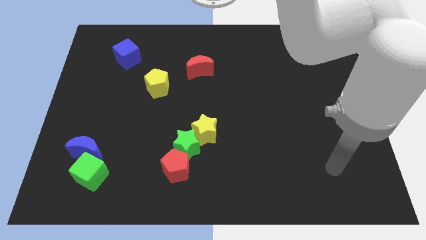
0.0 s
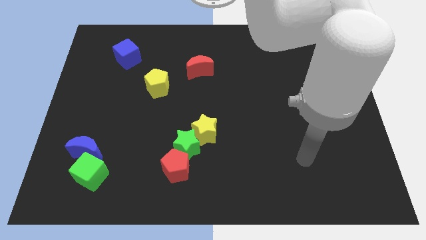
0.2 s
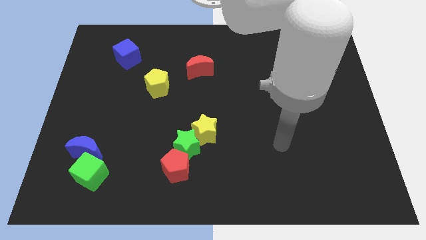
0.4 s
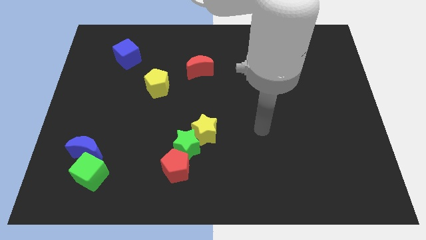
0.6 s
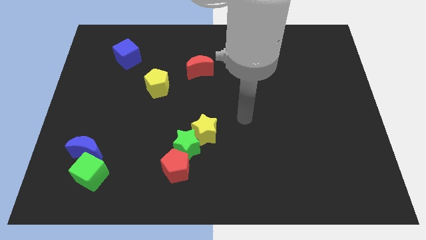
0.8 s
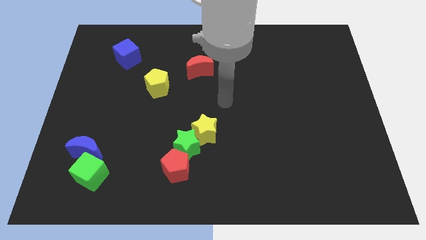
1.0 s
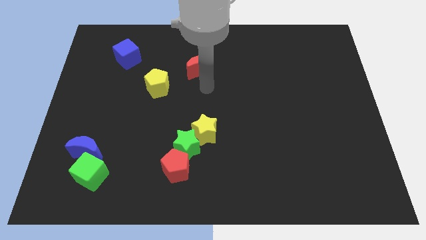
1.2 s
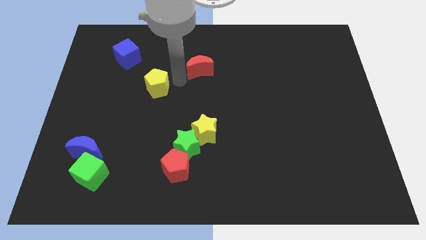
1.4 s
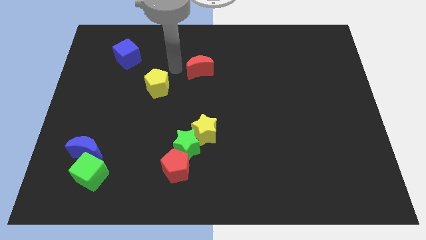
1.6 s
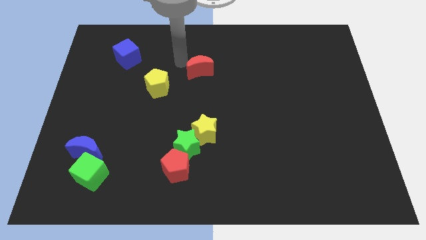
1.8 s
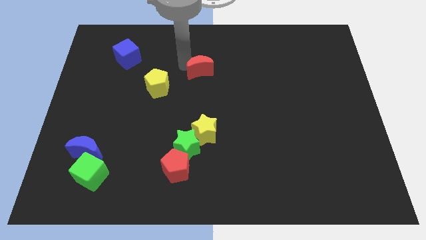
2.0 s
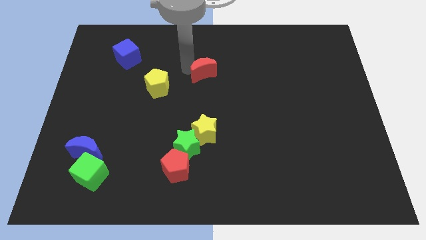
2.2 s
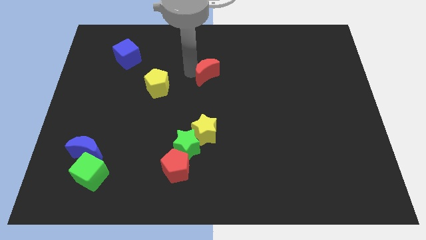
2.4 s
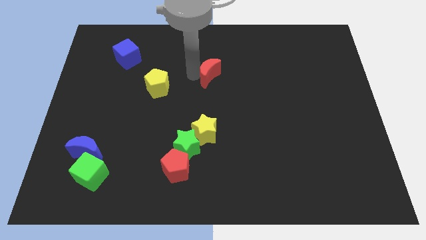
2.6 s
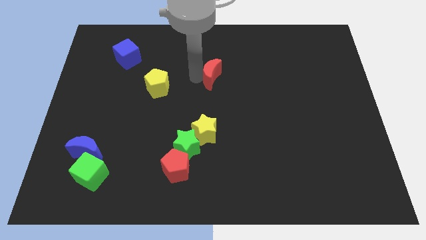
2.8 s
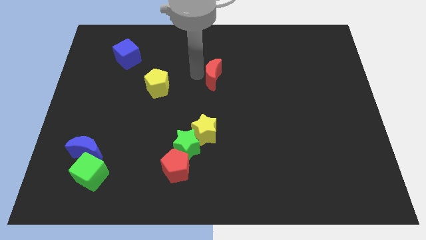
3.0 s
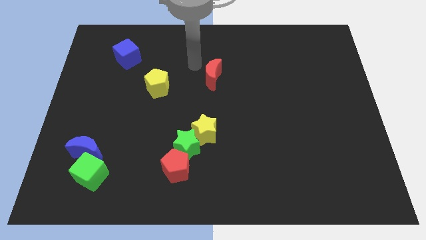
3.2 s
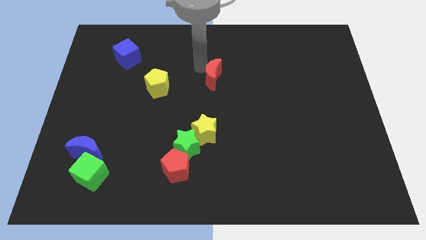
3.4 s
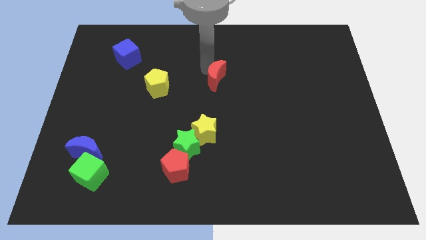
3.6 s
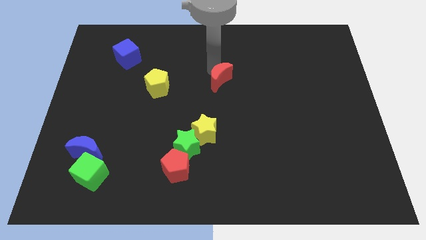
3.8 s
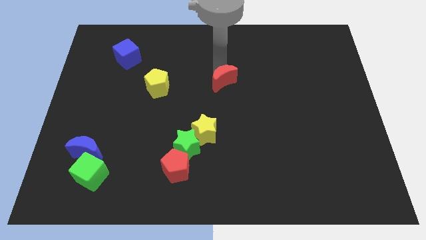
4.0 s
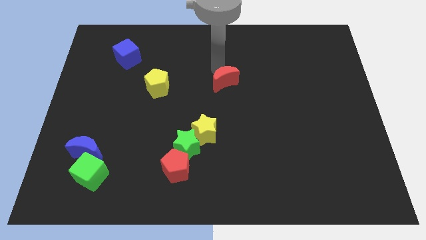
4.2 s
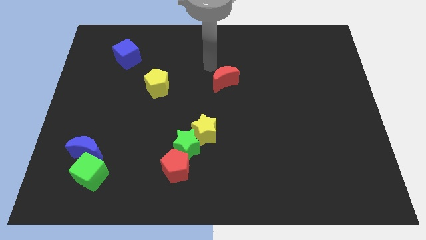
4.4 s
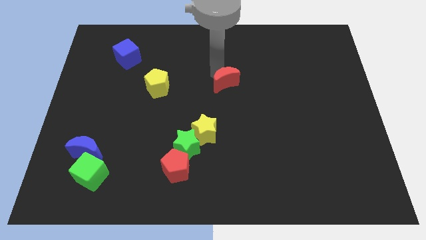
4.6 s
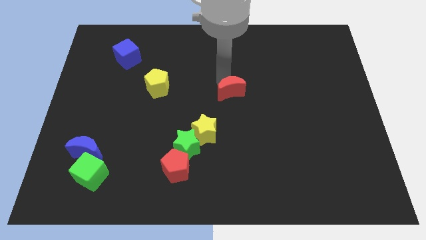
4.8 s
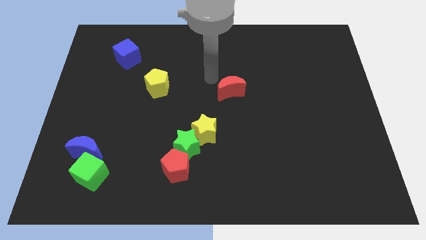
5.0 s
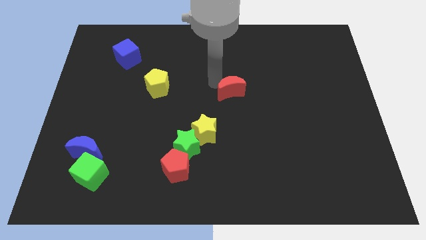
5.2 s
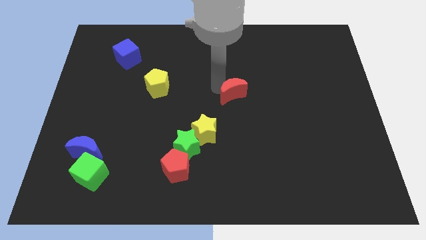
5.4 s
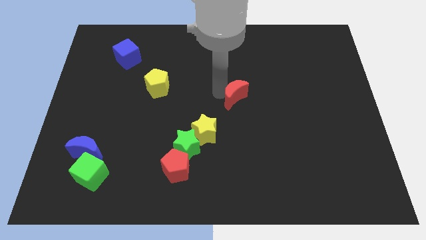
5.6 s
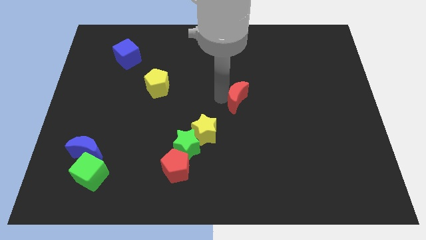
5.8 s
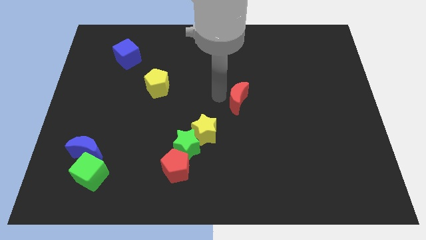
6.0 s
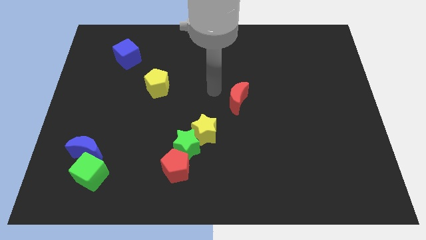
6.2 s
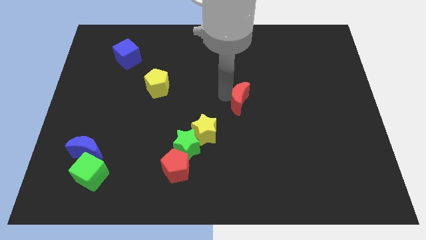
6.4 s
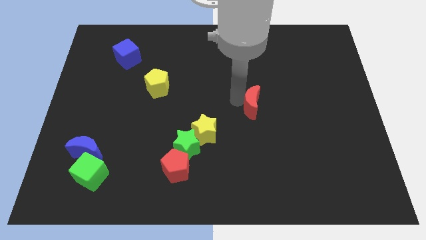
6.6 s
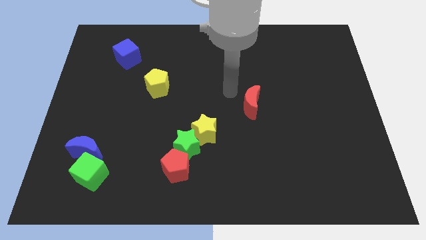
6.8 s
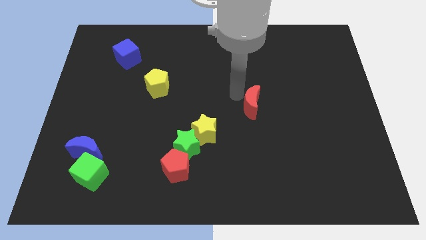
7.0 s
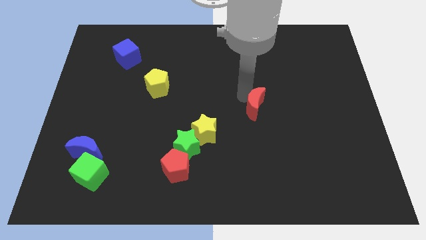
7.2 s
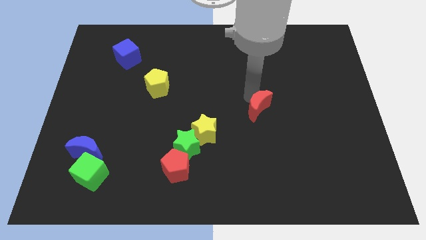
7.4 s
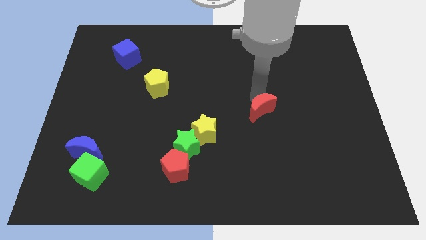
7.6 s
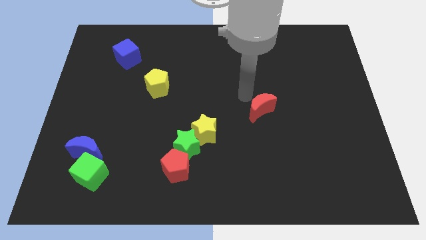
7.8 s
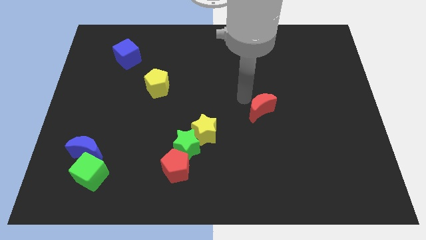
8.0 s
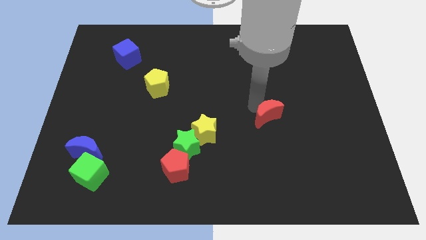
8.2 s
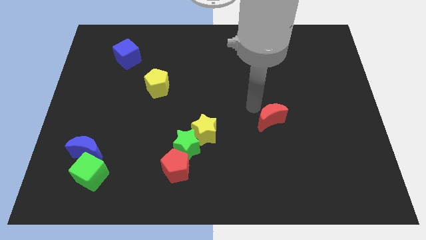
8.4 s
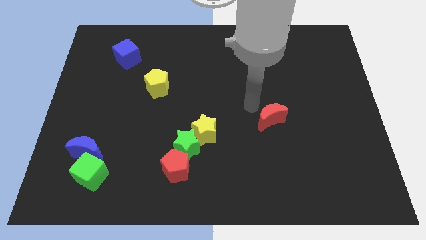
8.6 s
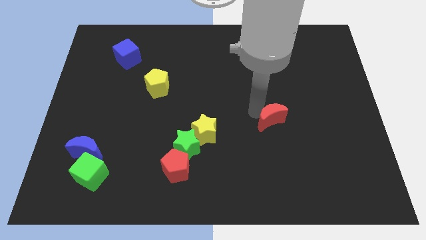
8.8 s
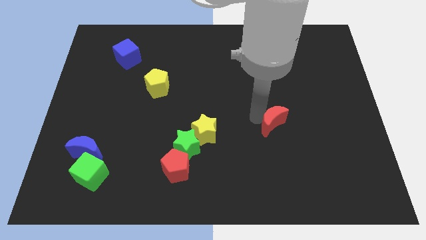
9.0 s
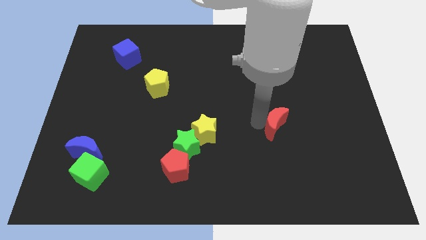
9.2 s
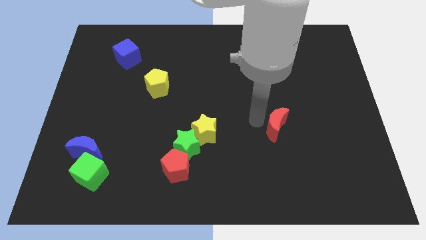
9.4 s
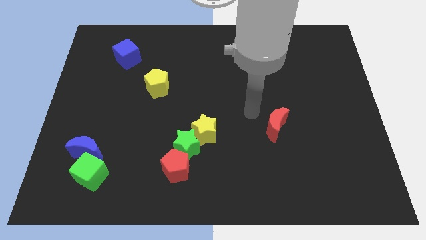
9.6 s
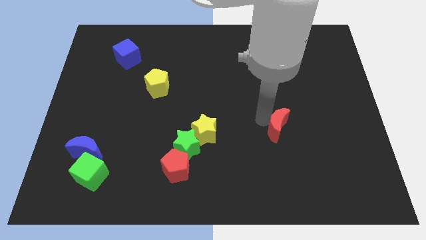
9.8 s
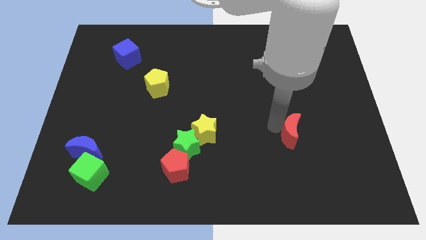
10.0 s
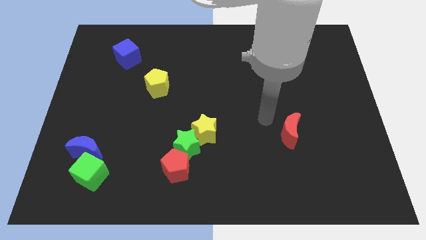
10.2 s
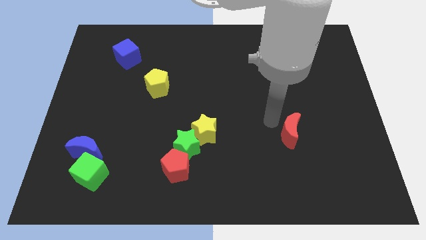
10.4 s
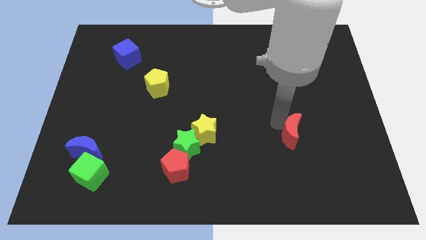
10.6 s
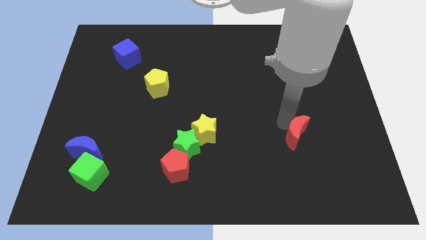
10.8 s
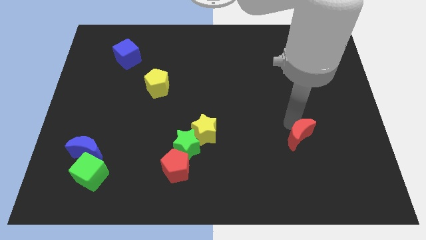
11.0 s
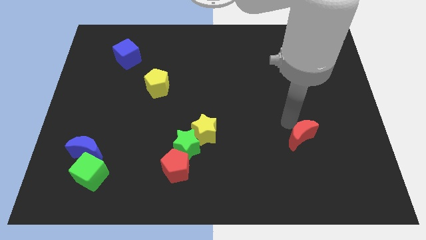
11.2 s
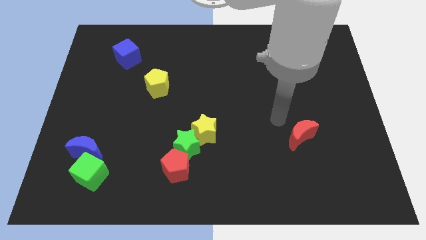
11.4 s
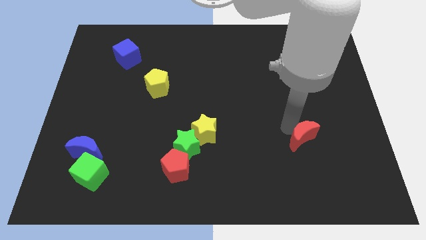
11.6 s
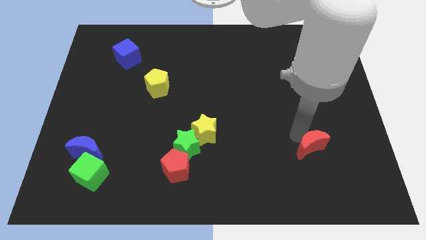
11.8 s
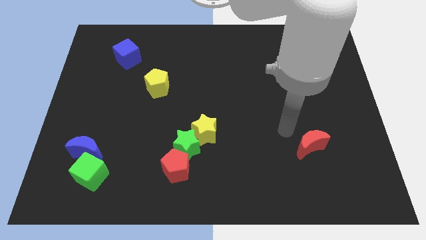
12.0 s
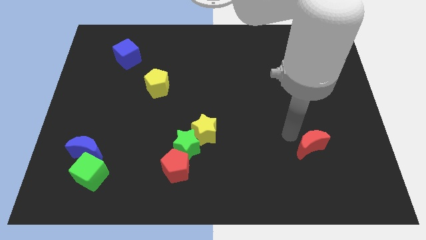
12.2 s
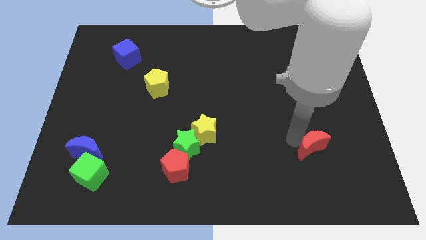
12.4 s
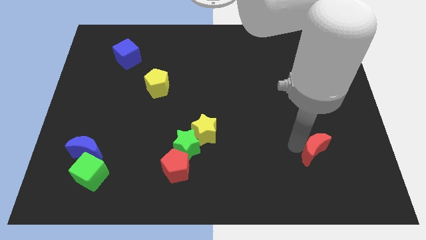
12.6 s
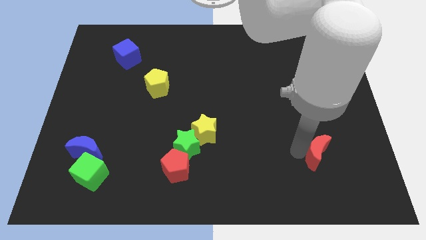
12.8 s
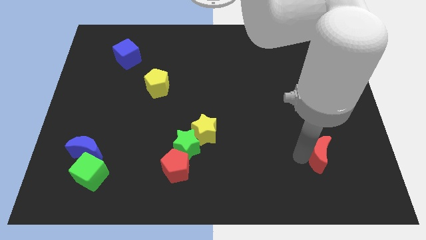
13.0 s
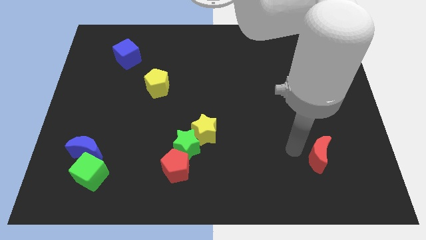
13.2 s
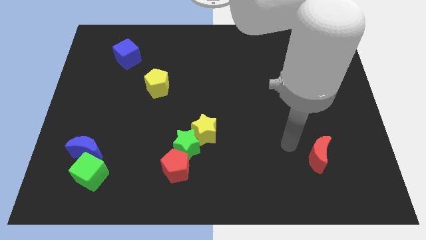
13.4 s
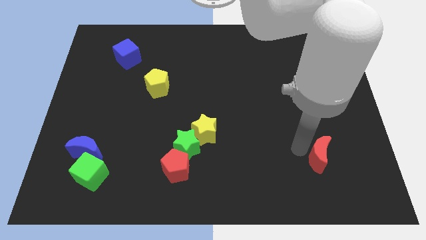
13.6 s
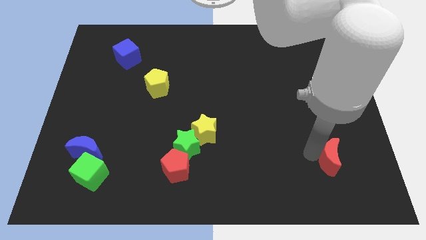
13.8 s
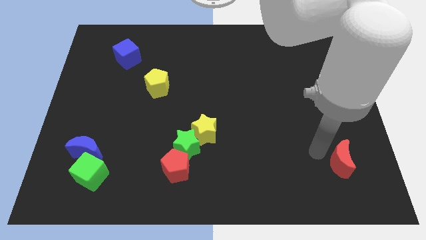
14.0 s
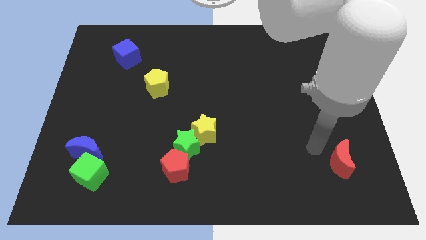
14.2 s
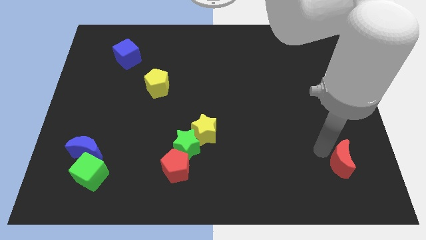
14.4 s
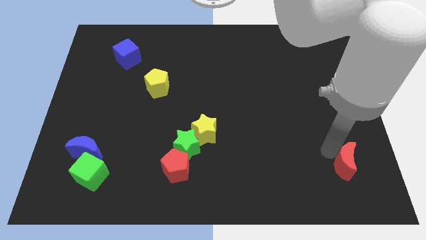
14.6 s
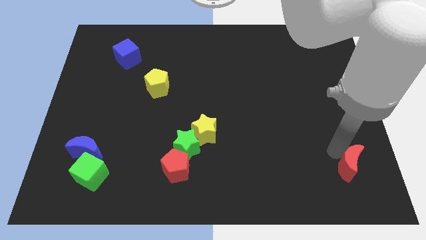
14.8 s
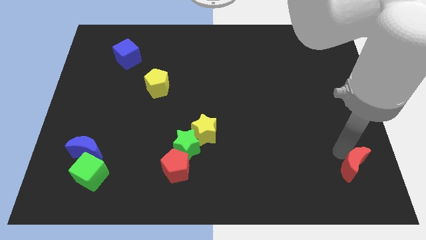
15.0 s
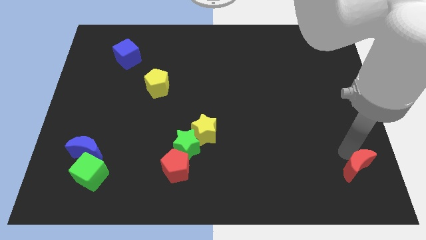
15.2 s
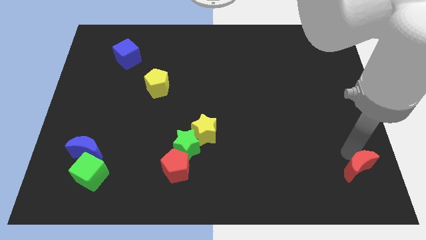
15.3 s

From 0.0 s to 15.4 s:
slide the red moon to the bottom right corner
